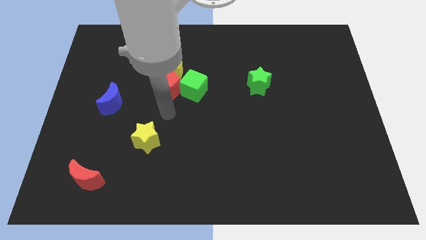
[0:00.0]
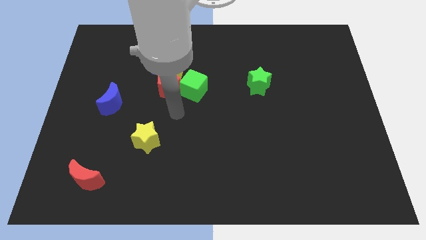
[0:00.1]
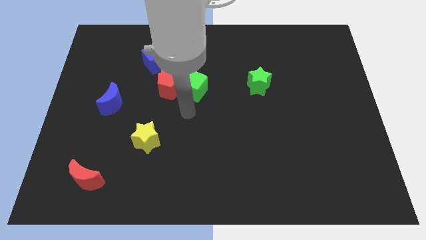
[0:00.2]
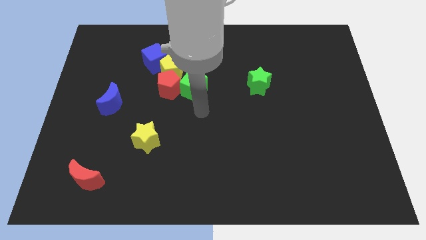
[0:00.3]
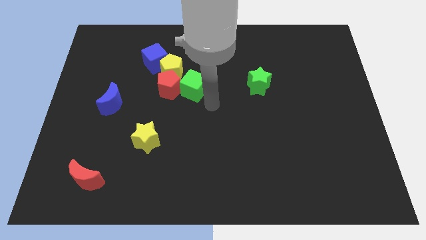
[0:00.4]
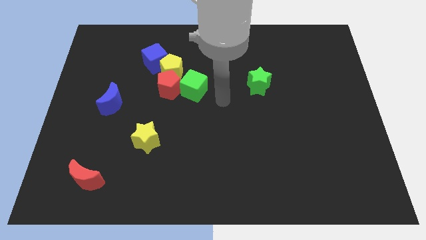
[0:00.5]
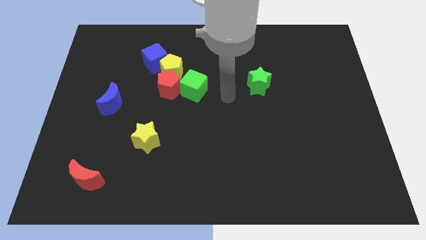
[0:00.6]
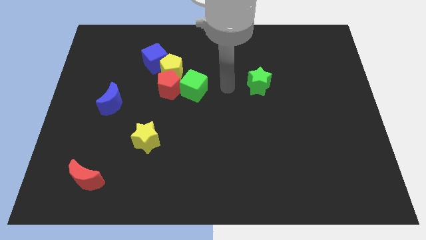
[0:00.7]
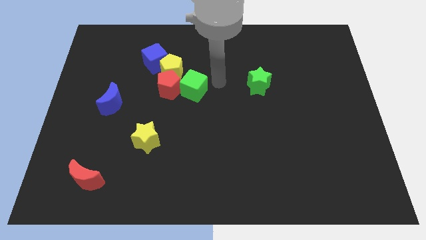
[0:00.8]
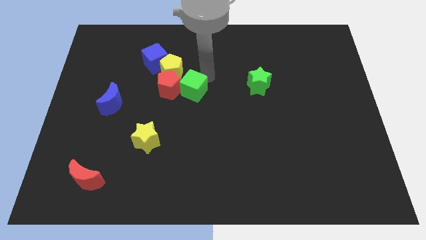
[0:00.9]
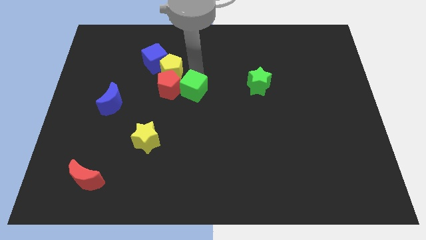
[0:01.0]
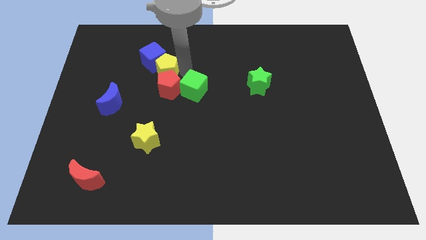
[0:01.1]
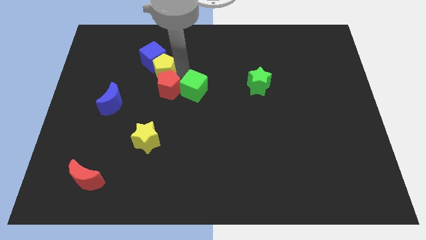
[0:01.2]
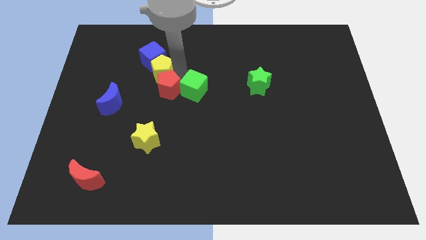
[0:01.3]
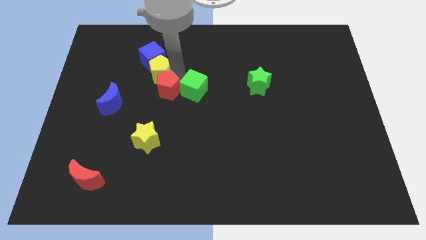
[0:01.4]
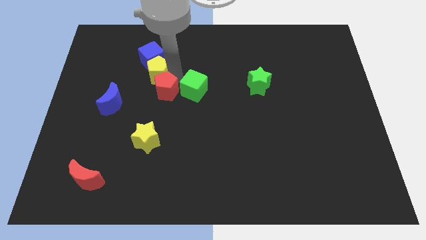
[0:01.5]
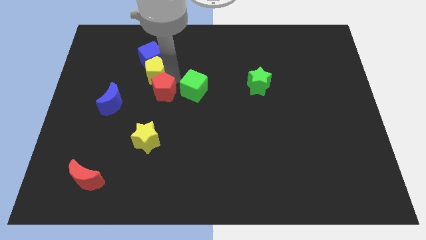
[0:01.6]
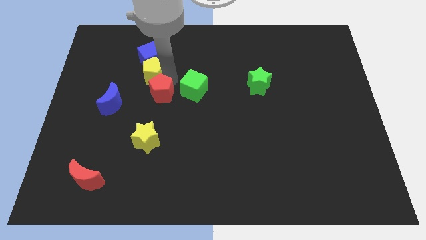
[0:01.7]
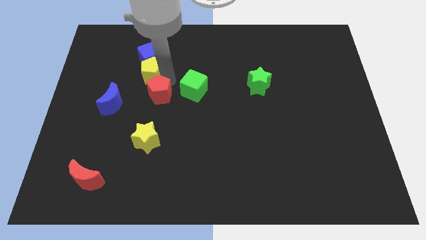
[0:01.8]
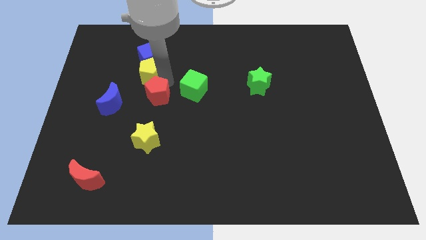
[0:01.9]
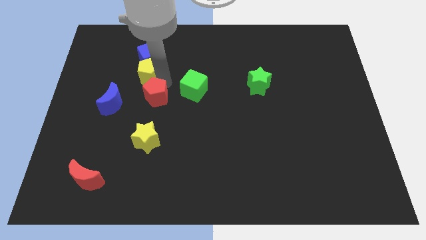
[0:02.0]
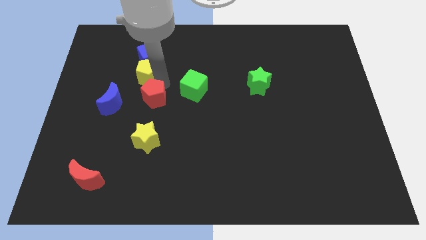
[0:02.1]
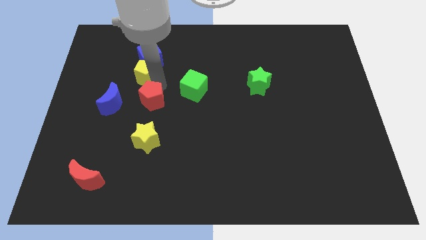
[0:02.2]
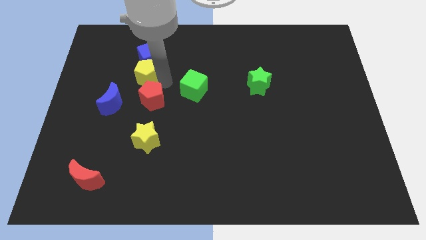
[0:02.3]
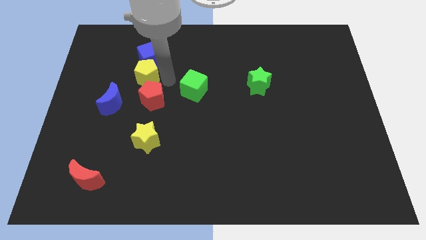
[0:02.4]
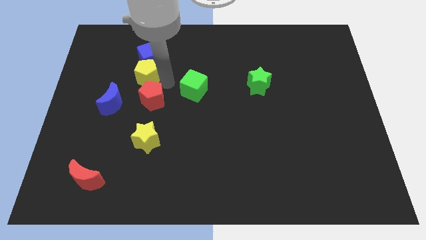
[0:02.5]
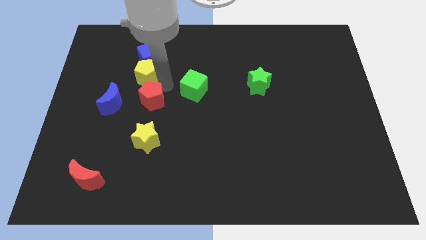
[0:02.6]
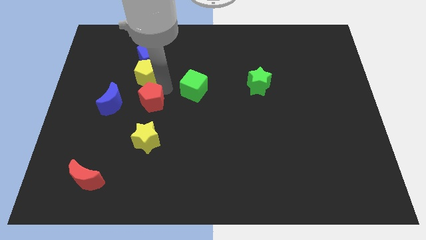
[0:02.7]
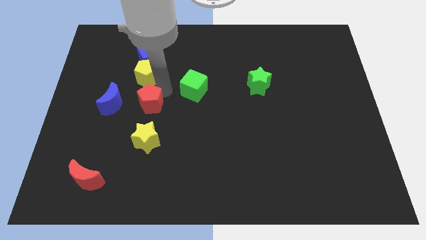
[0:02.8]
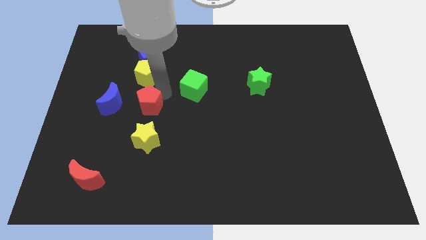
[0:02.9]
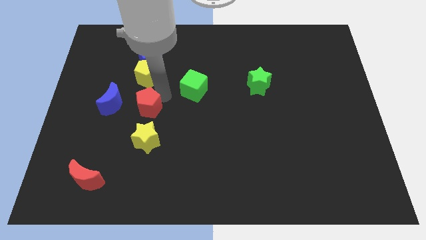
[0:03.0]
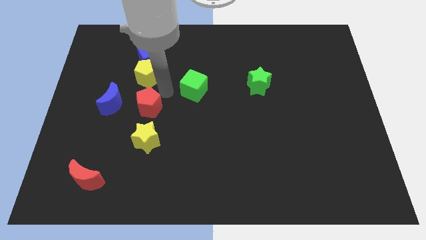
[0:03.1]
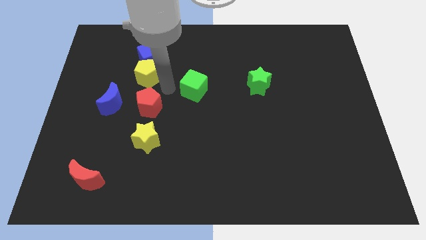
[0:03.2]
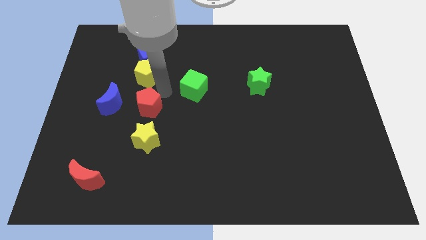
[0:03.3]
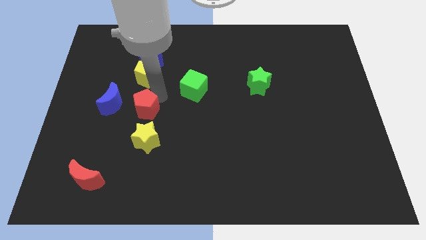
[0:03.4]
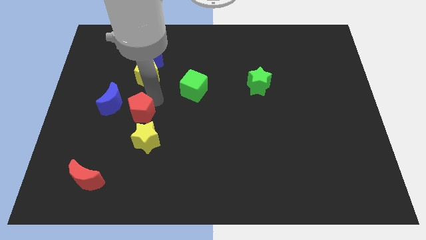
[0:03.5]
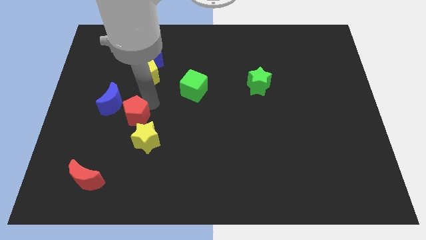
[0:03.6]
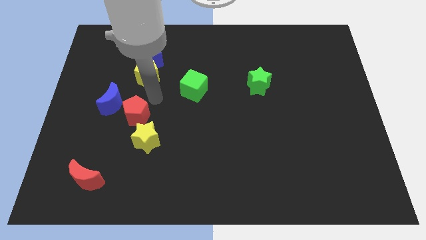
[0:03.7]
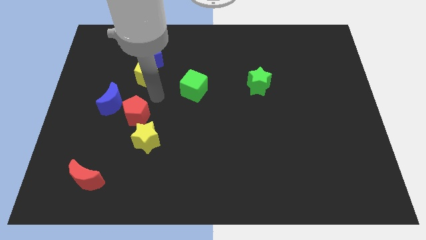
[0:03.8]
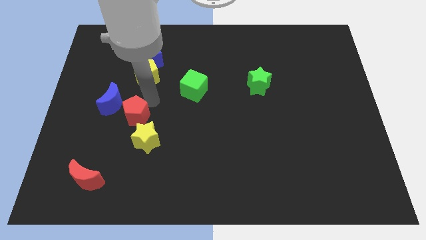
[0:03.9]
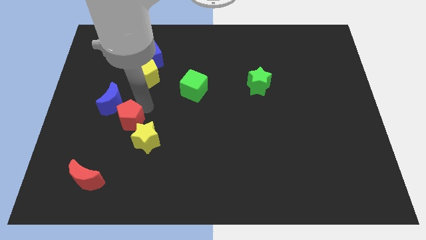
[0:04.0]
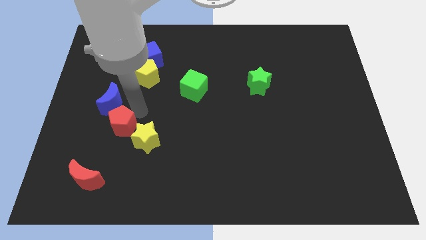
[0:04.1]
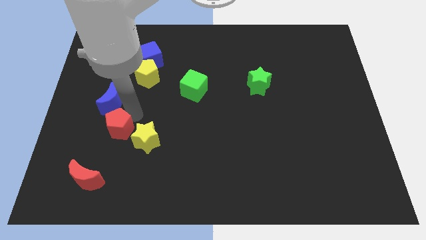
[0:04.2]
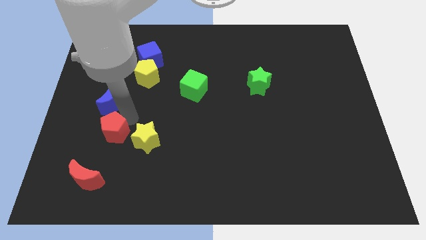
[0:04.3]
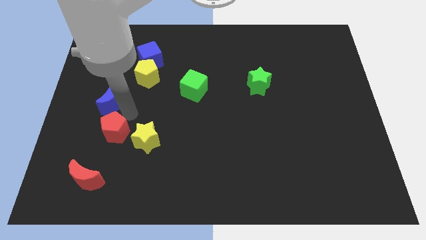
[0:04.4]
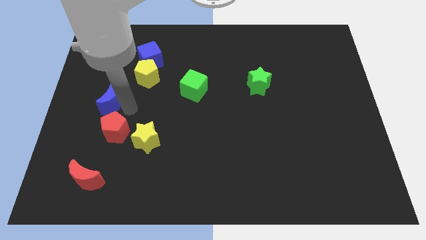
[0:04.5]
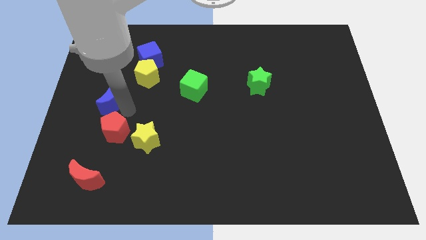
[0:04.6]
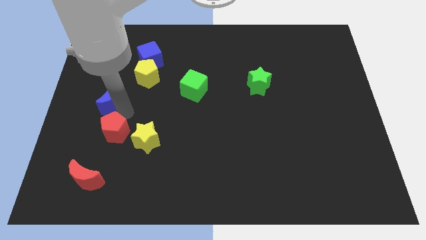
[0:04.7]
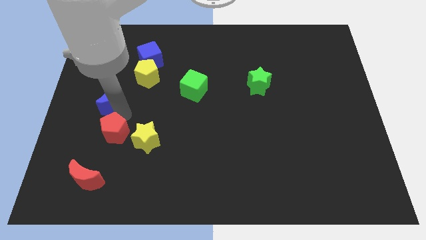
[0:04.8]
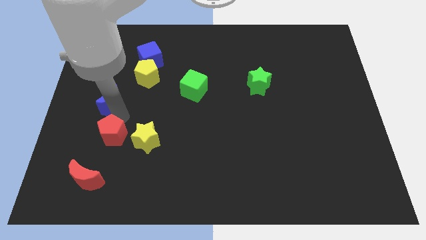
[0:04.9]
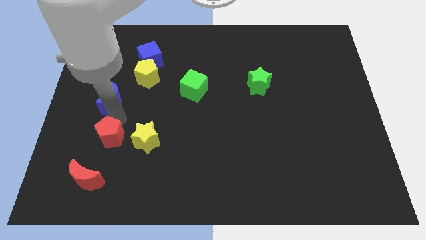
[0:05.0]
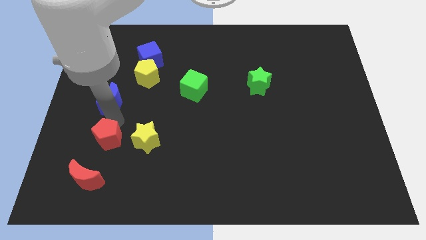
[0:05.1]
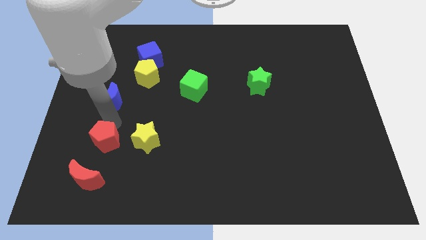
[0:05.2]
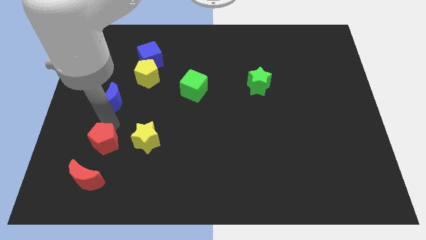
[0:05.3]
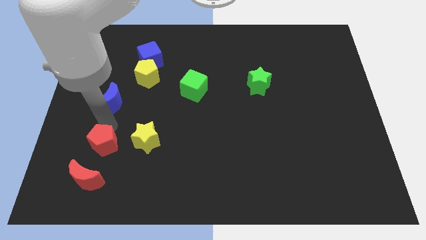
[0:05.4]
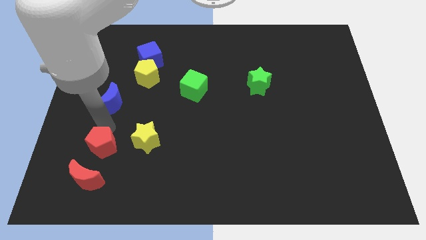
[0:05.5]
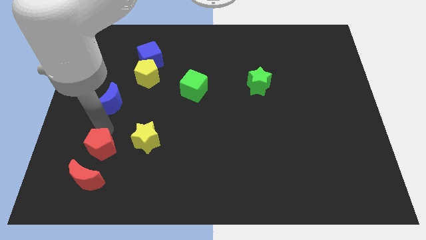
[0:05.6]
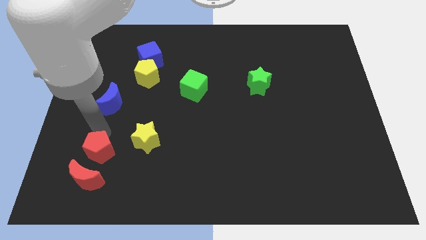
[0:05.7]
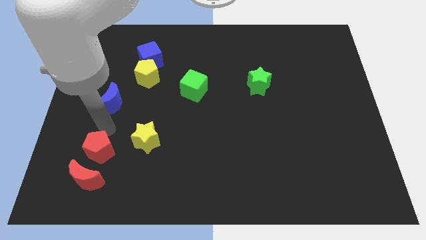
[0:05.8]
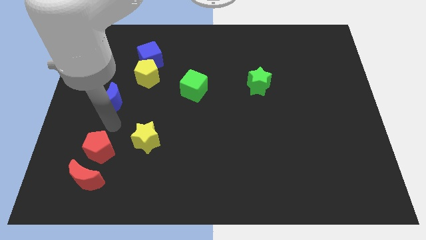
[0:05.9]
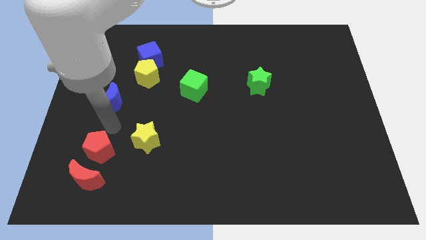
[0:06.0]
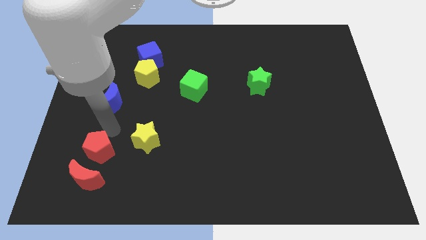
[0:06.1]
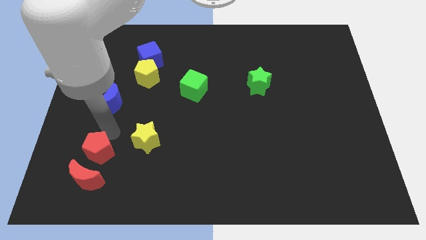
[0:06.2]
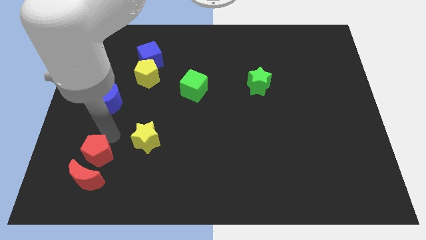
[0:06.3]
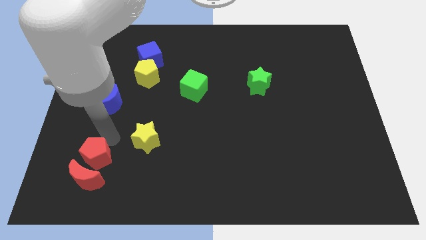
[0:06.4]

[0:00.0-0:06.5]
put the red pentagon close to the red moon
